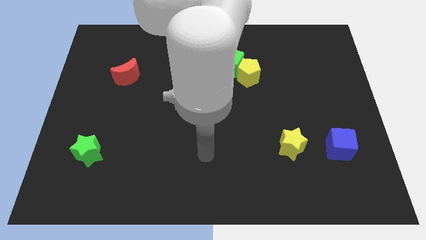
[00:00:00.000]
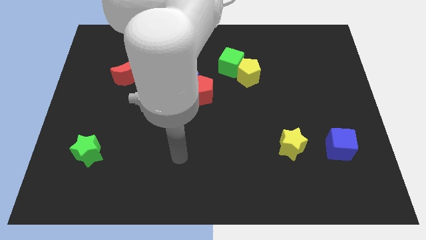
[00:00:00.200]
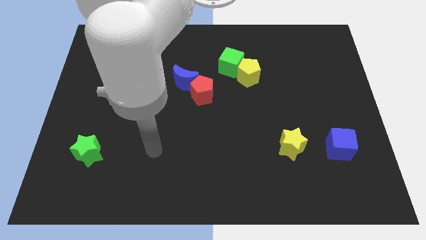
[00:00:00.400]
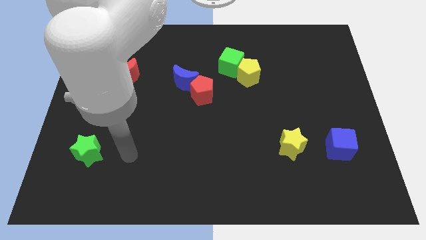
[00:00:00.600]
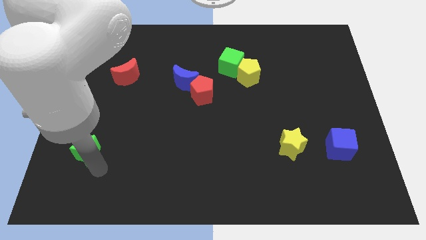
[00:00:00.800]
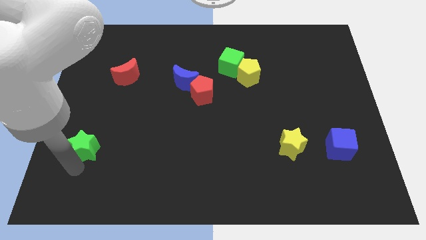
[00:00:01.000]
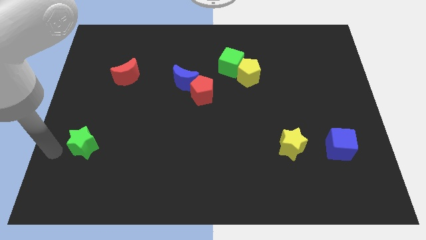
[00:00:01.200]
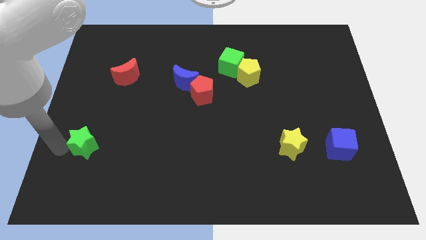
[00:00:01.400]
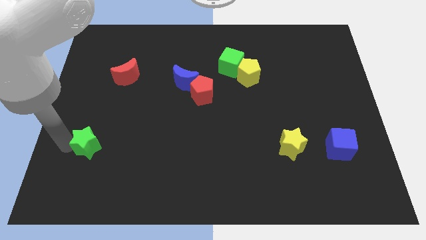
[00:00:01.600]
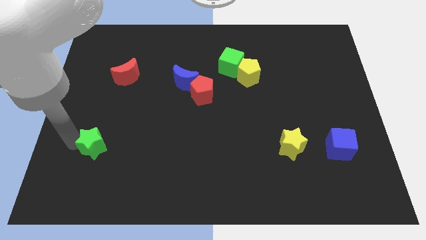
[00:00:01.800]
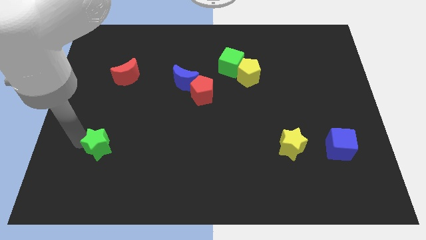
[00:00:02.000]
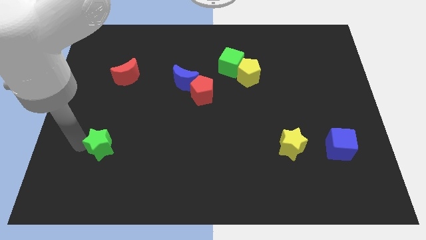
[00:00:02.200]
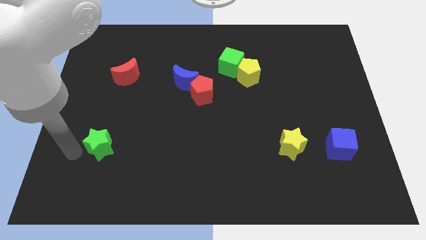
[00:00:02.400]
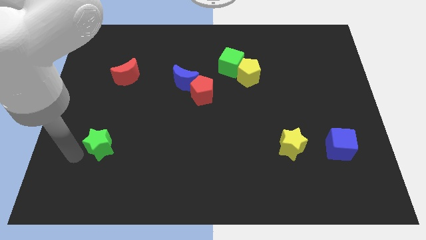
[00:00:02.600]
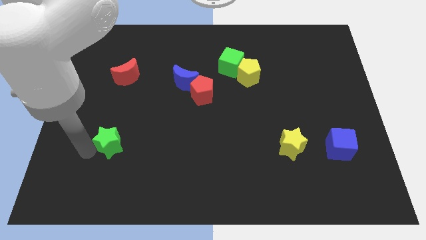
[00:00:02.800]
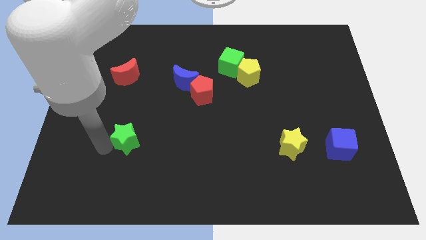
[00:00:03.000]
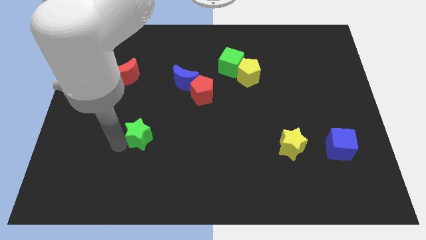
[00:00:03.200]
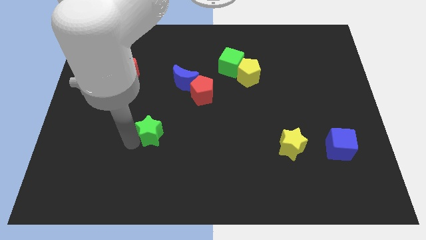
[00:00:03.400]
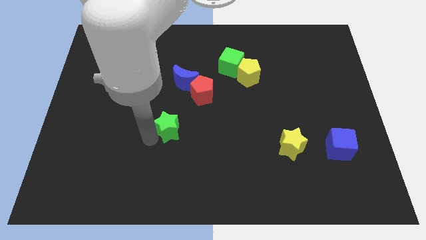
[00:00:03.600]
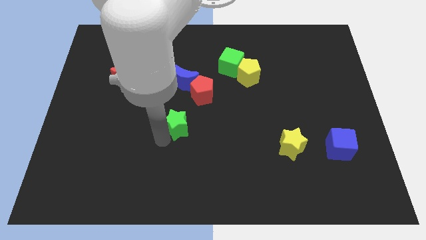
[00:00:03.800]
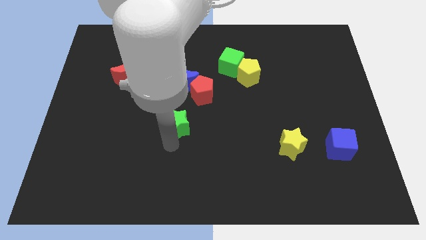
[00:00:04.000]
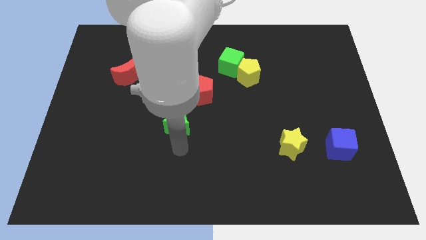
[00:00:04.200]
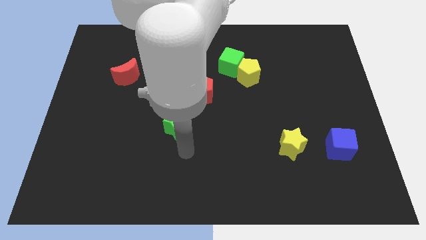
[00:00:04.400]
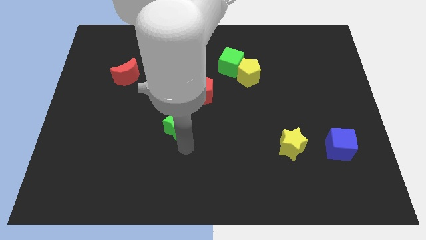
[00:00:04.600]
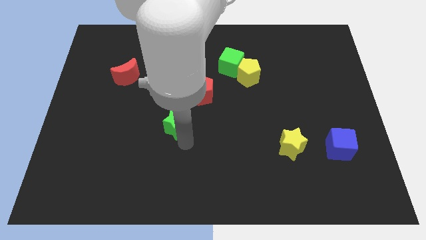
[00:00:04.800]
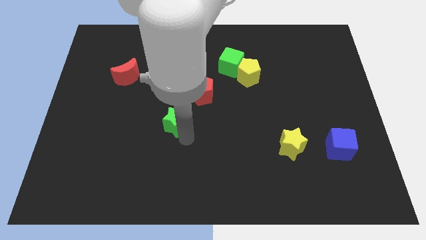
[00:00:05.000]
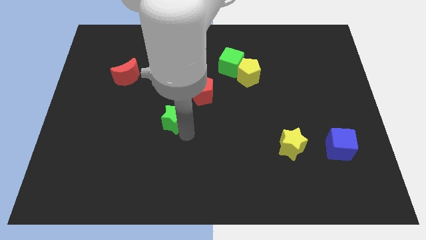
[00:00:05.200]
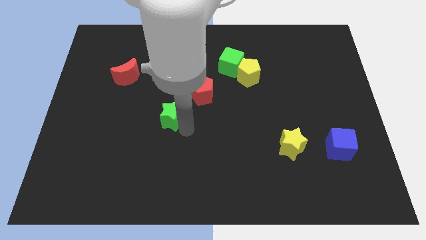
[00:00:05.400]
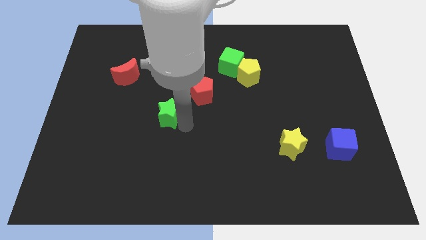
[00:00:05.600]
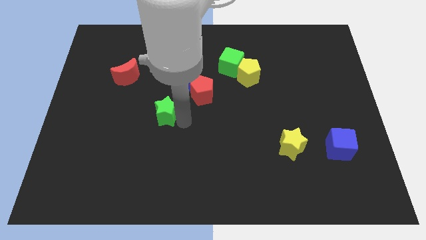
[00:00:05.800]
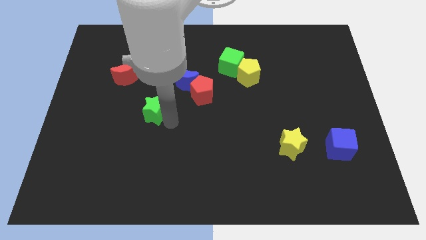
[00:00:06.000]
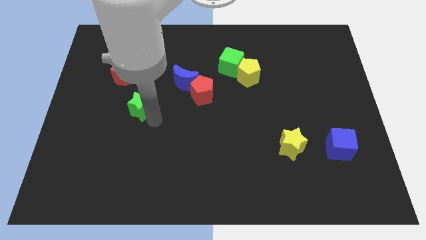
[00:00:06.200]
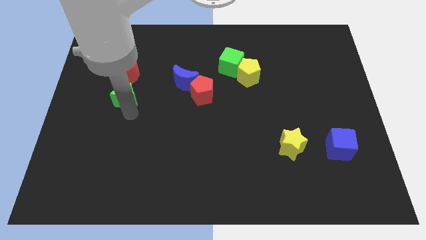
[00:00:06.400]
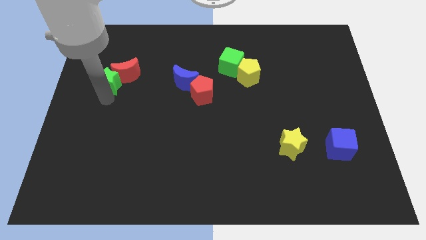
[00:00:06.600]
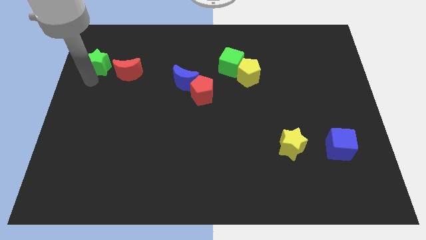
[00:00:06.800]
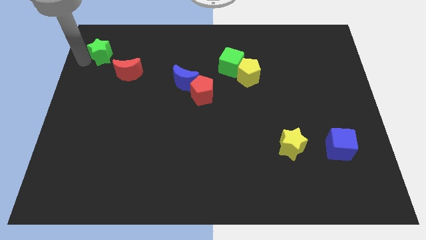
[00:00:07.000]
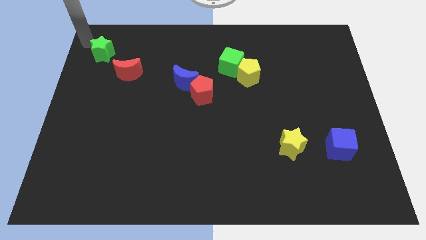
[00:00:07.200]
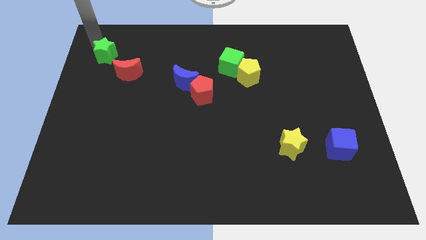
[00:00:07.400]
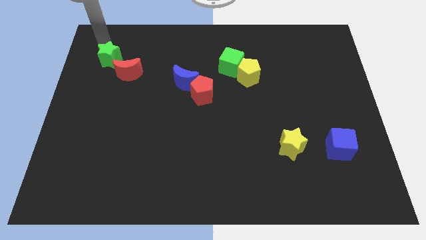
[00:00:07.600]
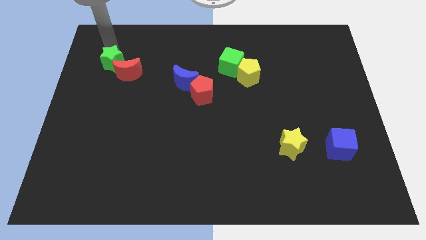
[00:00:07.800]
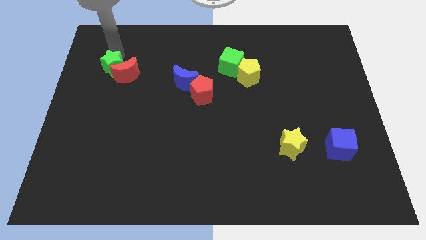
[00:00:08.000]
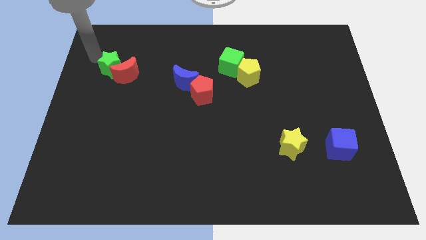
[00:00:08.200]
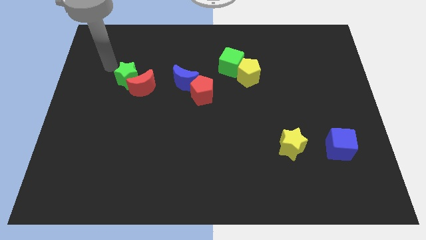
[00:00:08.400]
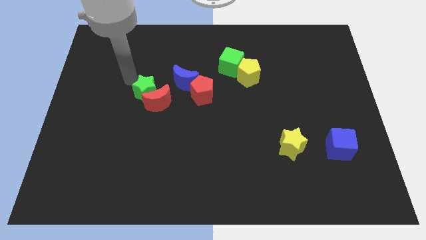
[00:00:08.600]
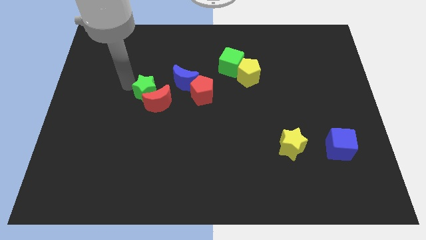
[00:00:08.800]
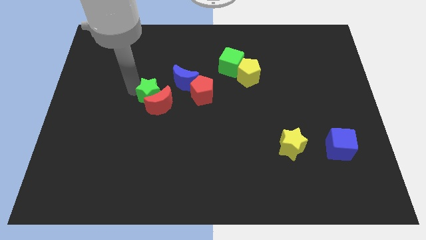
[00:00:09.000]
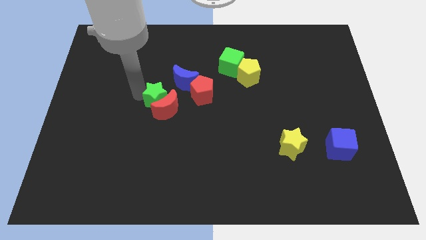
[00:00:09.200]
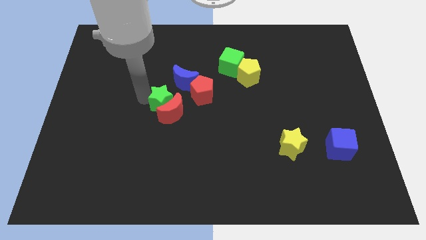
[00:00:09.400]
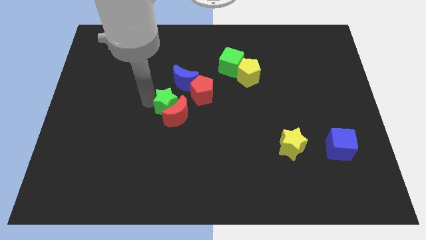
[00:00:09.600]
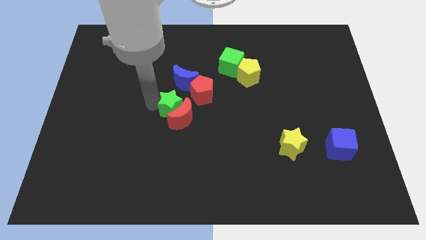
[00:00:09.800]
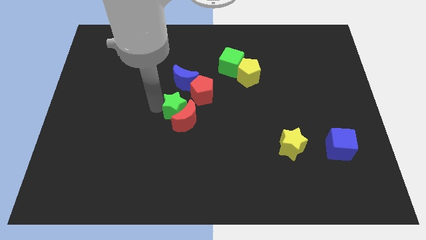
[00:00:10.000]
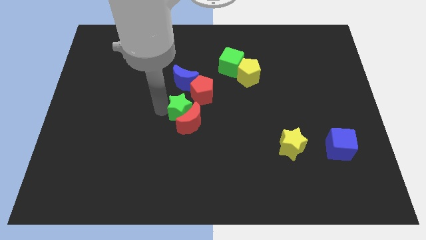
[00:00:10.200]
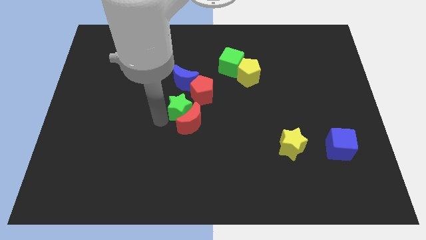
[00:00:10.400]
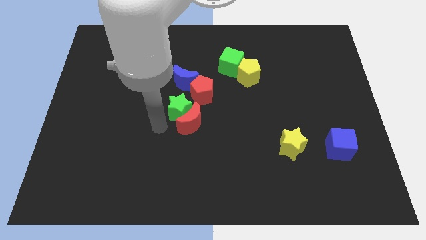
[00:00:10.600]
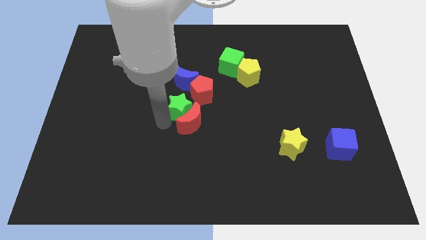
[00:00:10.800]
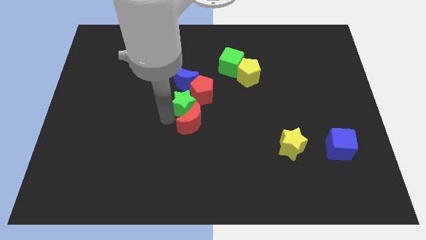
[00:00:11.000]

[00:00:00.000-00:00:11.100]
slide the green star close to the red pentagon

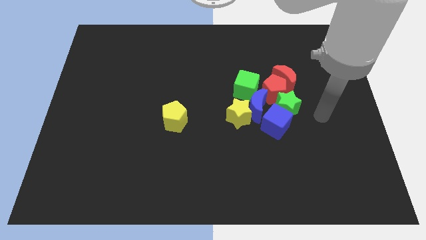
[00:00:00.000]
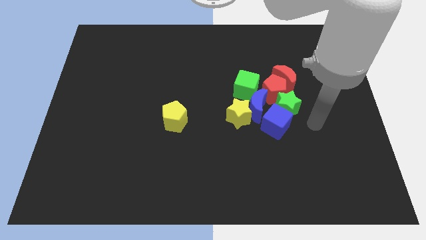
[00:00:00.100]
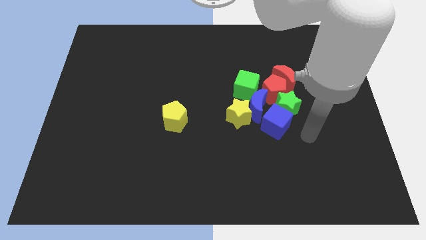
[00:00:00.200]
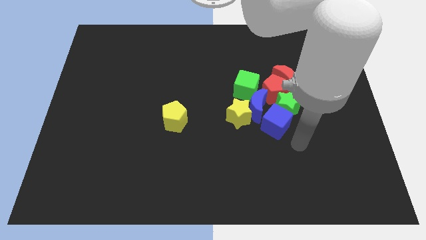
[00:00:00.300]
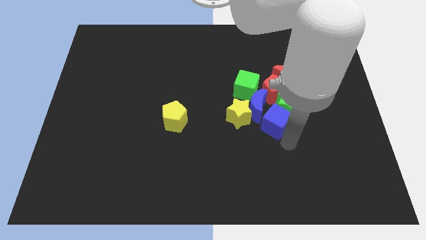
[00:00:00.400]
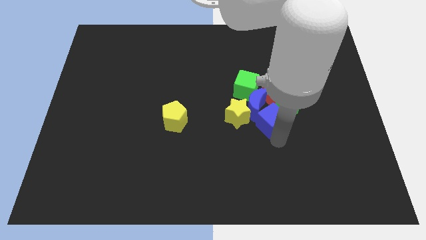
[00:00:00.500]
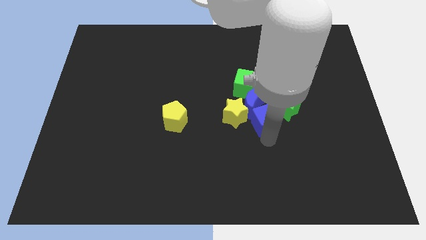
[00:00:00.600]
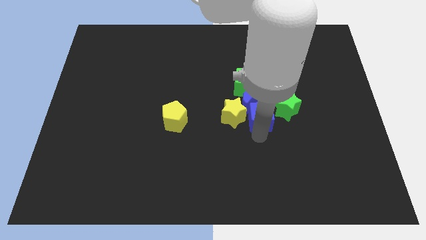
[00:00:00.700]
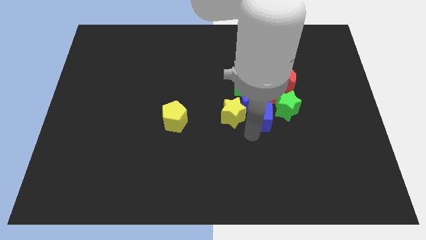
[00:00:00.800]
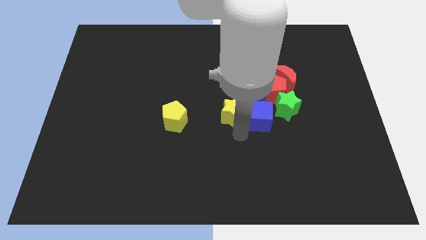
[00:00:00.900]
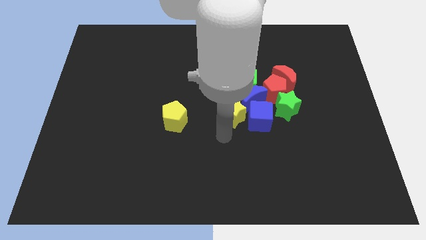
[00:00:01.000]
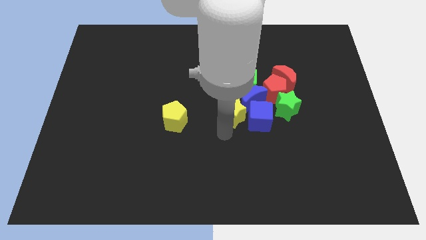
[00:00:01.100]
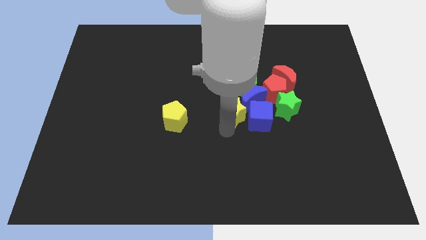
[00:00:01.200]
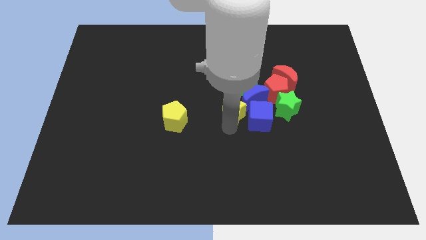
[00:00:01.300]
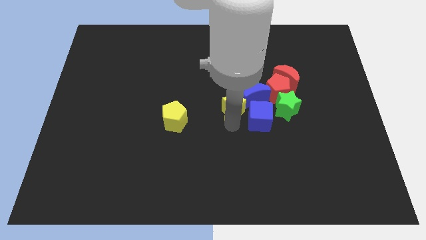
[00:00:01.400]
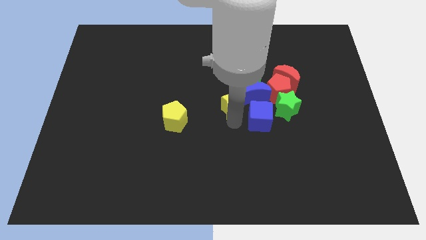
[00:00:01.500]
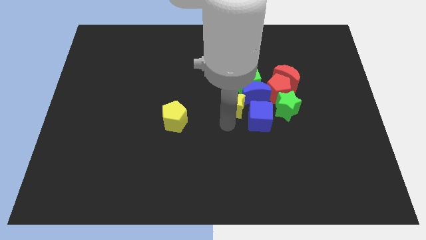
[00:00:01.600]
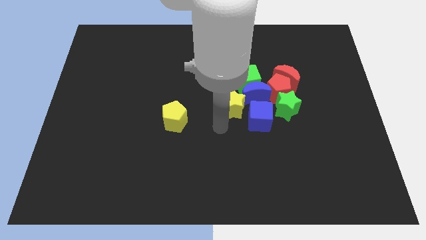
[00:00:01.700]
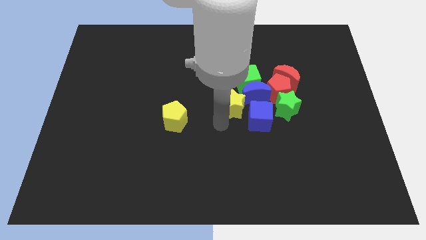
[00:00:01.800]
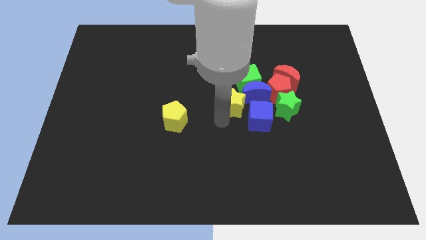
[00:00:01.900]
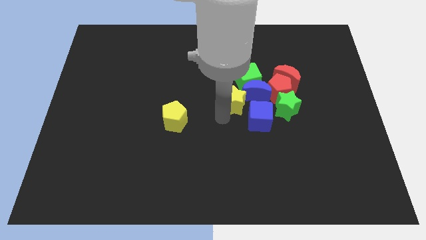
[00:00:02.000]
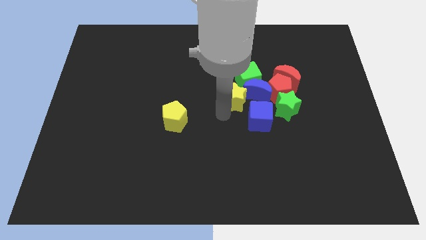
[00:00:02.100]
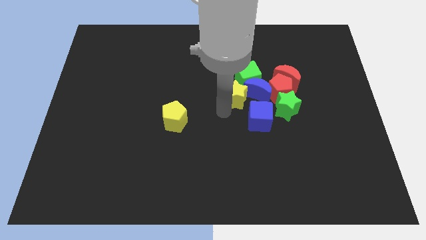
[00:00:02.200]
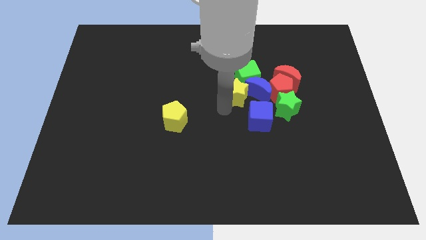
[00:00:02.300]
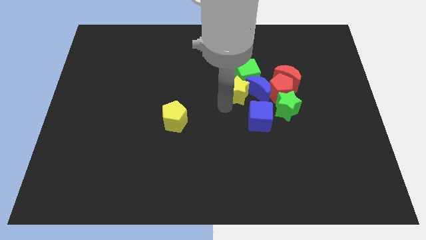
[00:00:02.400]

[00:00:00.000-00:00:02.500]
move the yellow star towards the green cube
